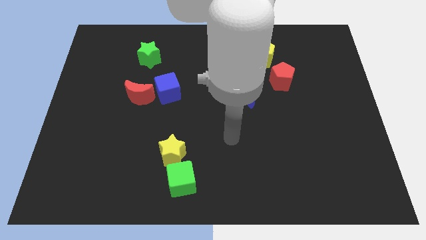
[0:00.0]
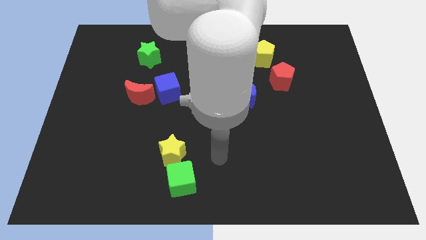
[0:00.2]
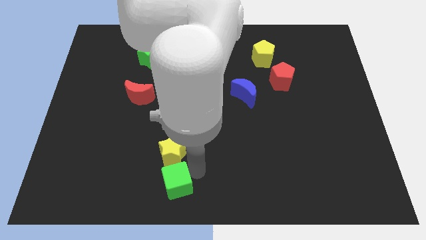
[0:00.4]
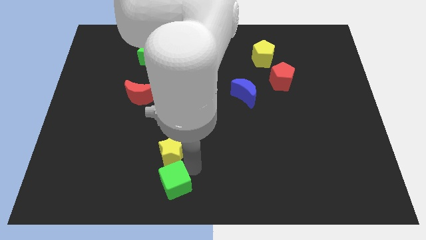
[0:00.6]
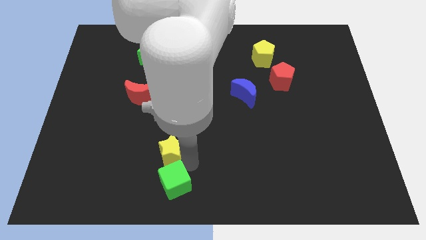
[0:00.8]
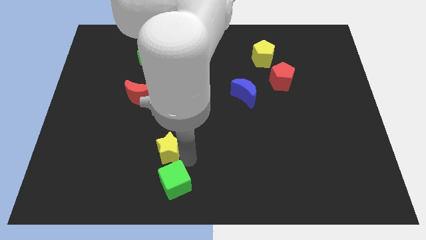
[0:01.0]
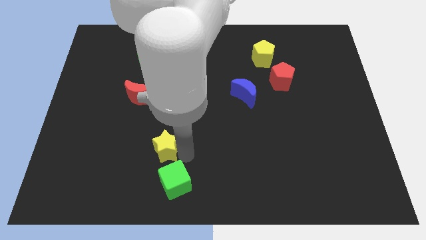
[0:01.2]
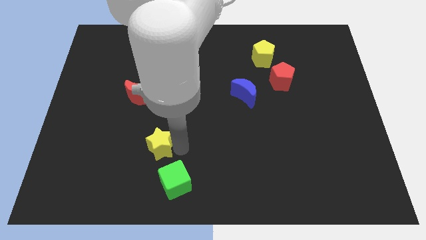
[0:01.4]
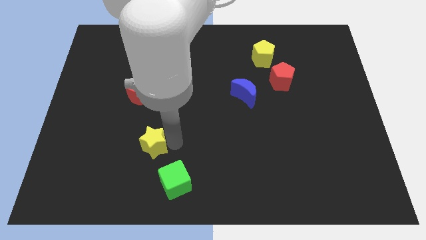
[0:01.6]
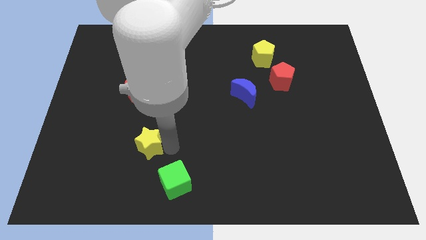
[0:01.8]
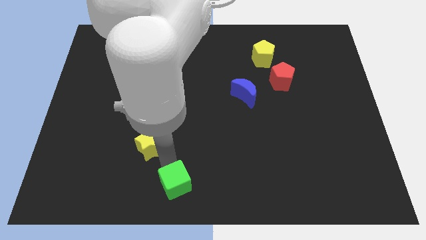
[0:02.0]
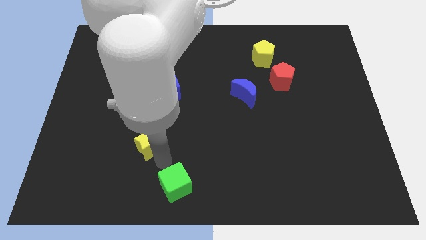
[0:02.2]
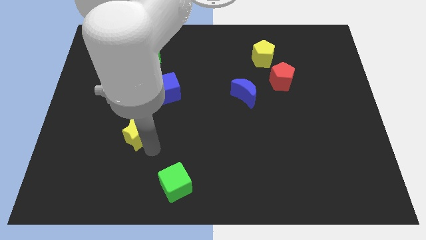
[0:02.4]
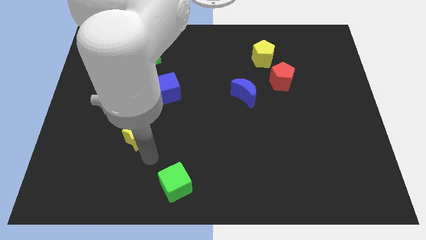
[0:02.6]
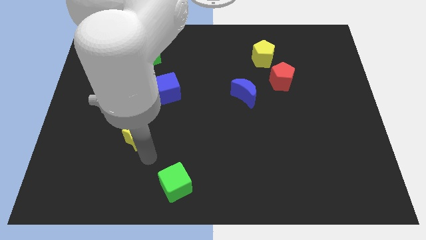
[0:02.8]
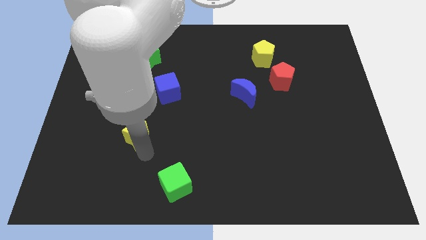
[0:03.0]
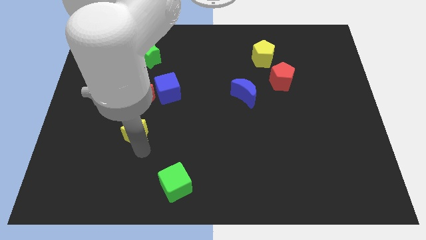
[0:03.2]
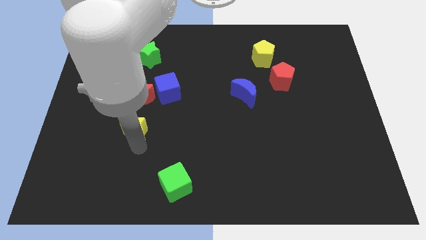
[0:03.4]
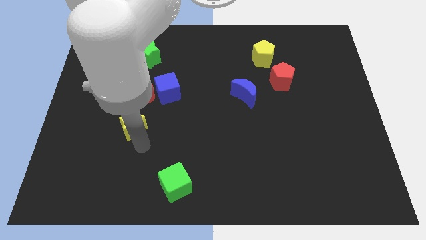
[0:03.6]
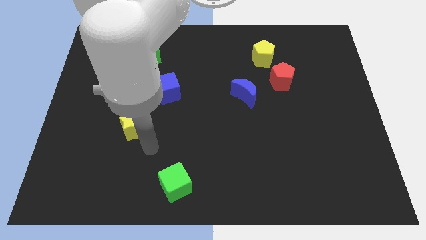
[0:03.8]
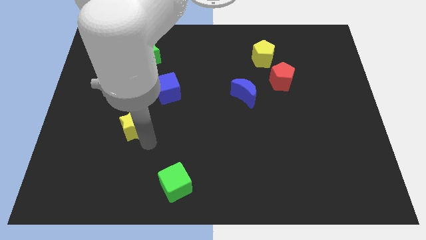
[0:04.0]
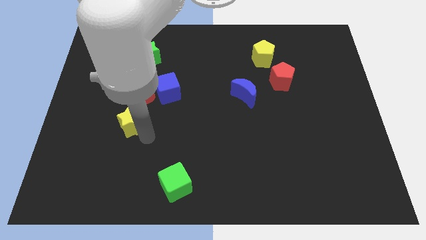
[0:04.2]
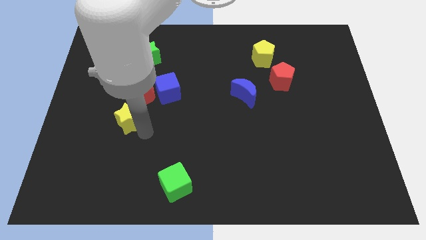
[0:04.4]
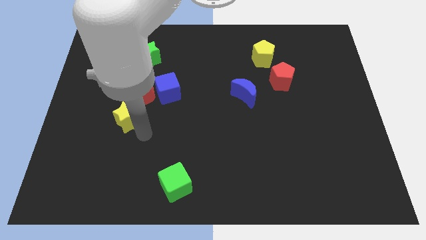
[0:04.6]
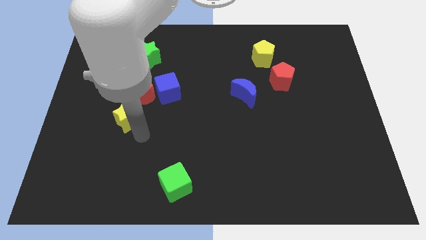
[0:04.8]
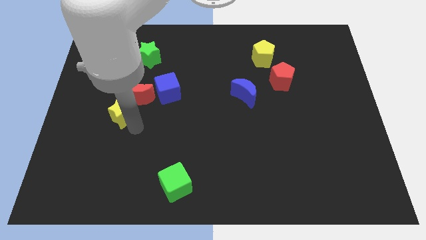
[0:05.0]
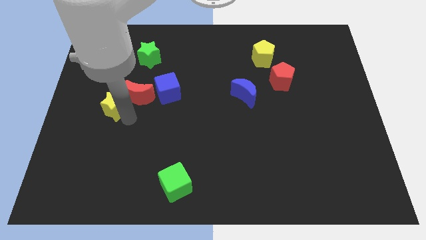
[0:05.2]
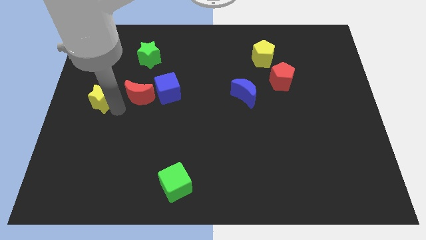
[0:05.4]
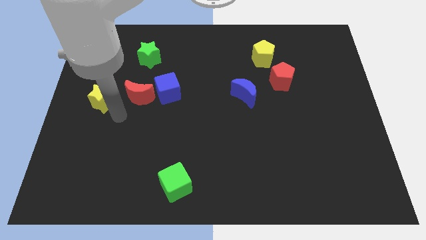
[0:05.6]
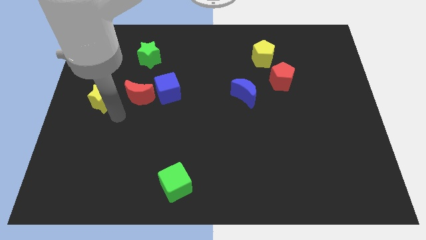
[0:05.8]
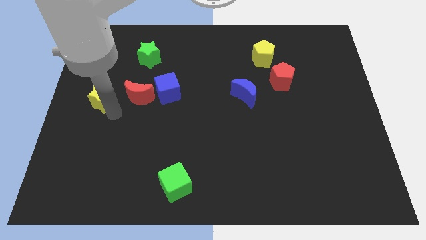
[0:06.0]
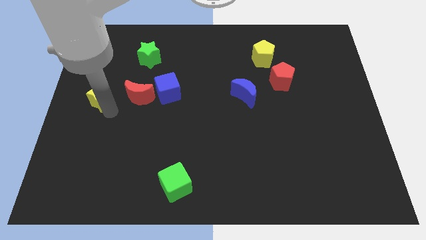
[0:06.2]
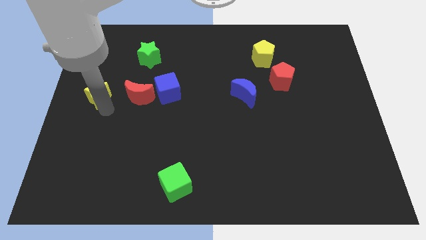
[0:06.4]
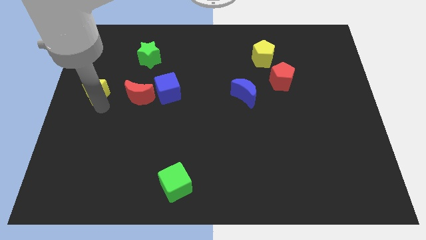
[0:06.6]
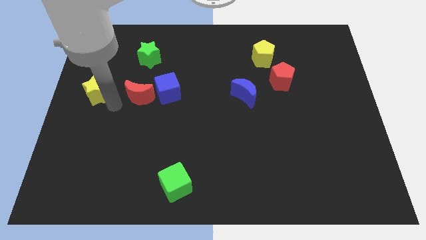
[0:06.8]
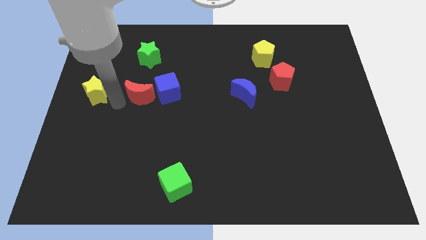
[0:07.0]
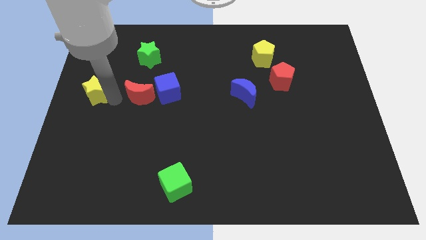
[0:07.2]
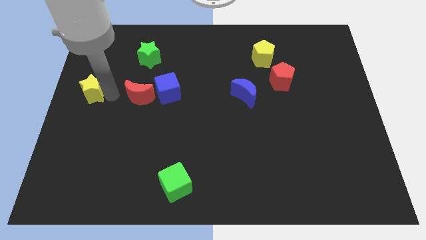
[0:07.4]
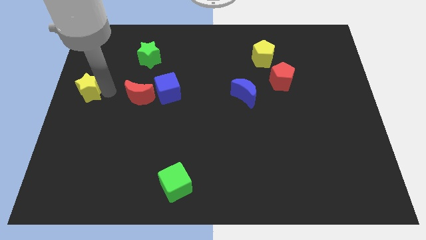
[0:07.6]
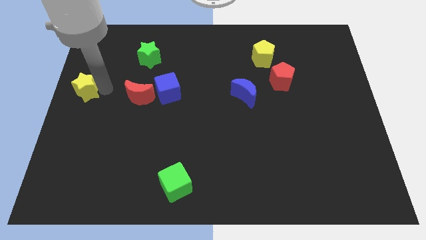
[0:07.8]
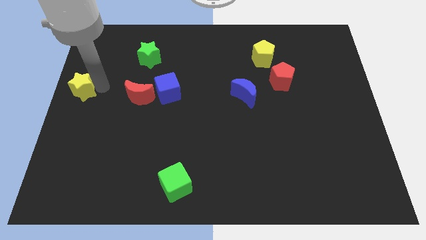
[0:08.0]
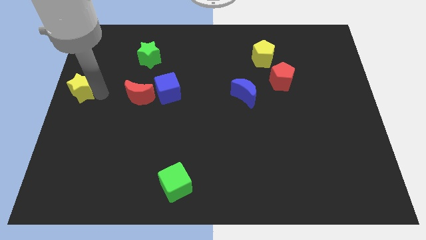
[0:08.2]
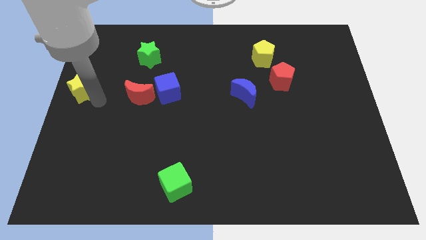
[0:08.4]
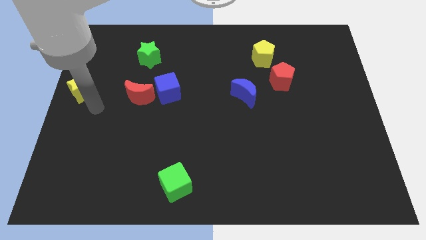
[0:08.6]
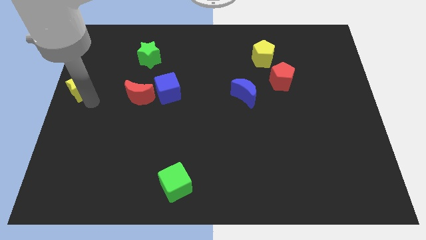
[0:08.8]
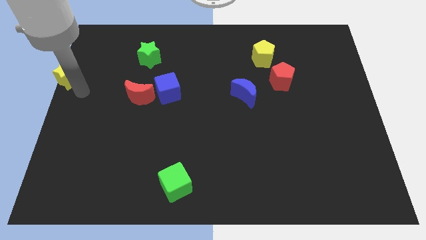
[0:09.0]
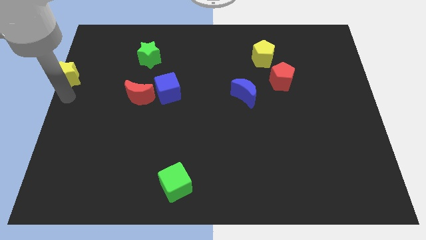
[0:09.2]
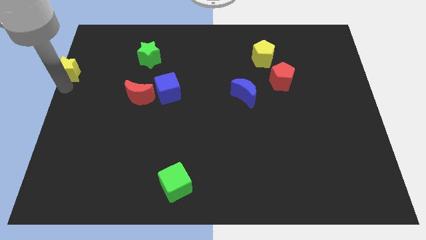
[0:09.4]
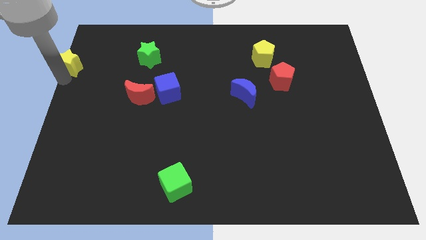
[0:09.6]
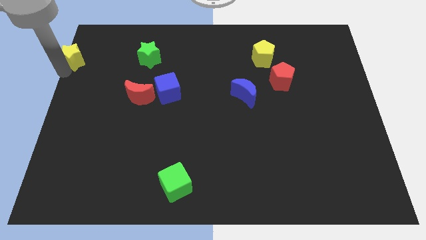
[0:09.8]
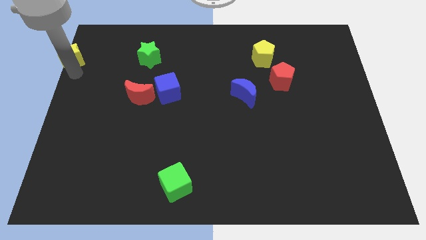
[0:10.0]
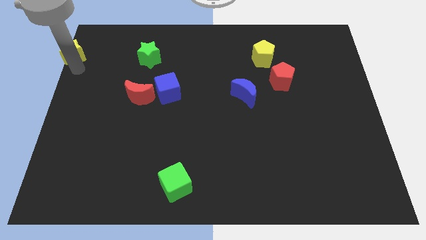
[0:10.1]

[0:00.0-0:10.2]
move the yellow star to the top left

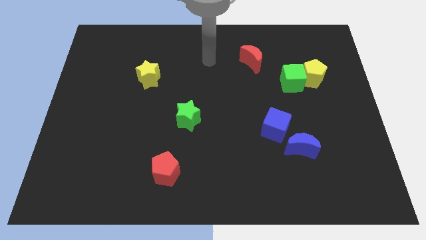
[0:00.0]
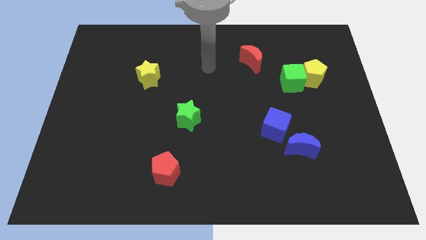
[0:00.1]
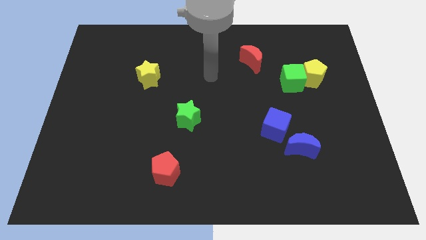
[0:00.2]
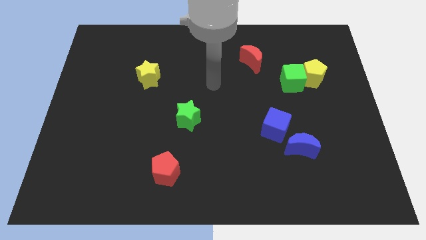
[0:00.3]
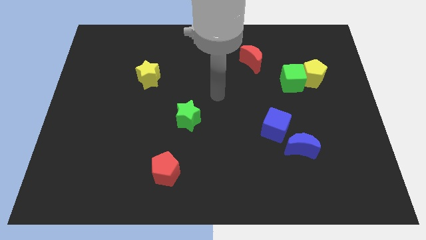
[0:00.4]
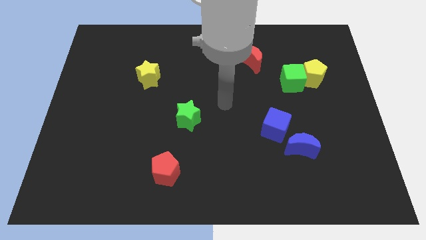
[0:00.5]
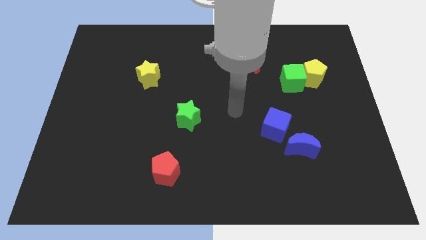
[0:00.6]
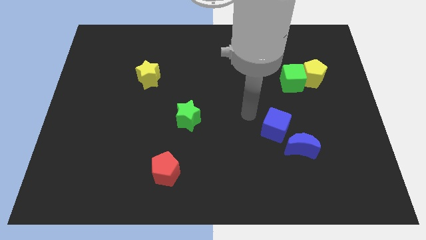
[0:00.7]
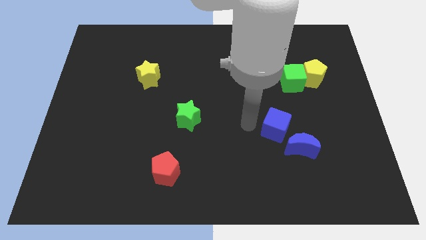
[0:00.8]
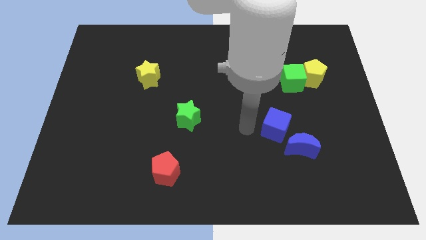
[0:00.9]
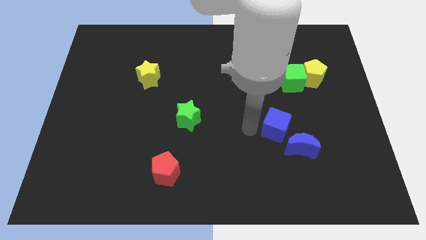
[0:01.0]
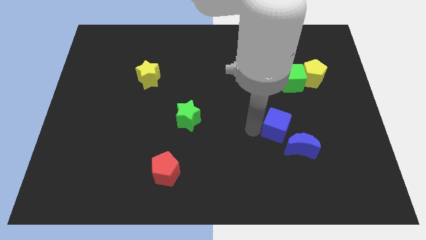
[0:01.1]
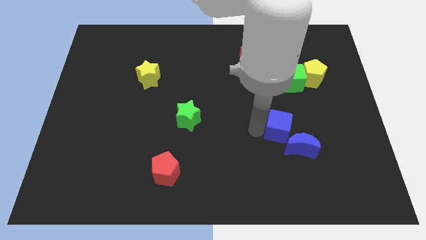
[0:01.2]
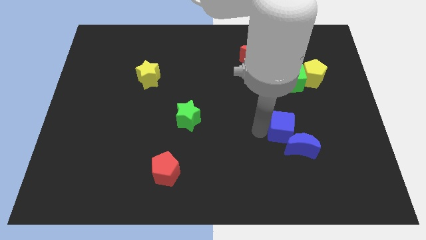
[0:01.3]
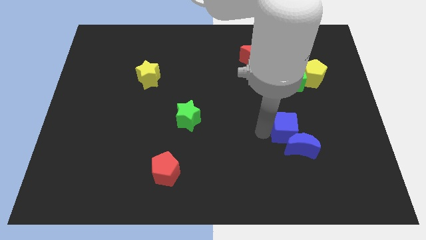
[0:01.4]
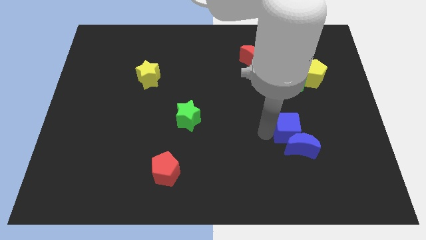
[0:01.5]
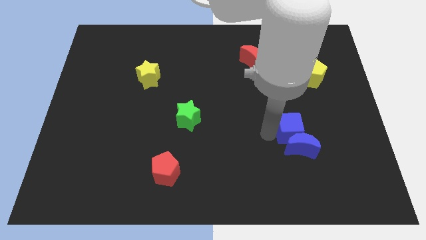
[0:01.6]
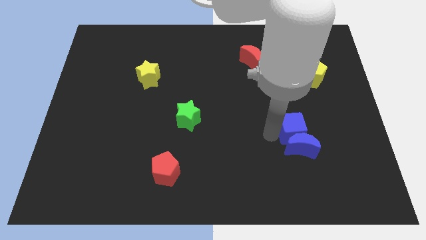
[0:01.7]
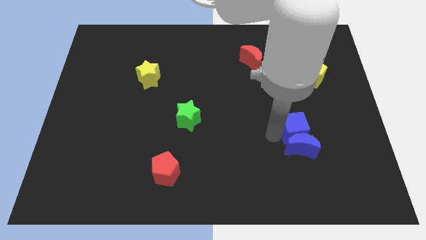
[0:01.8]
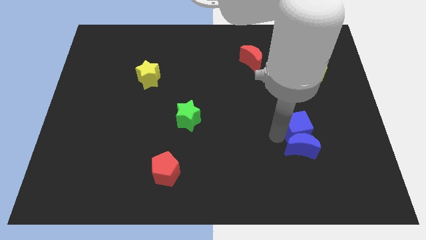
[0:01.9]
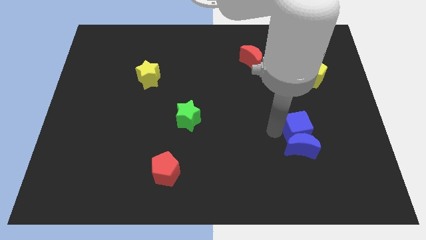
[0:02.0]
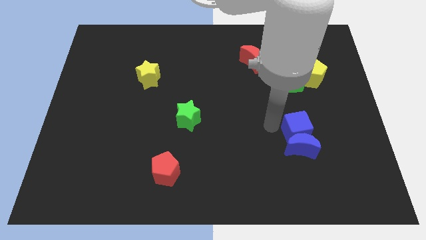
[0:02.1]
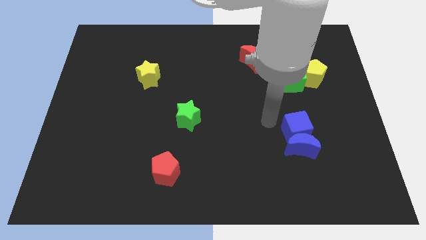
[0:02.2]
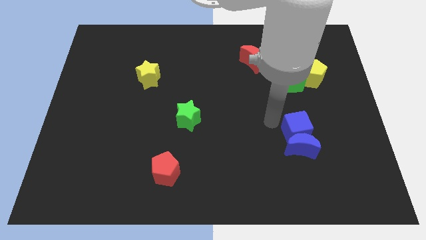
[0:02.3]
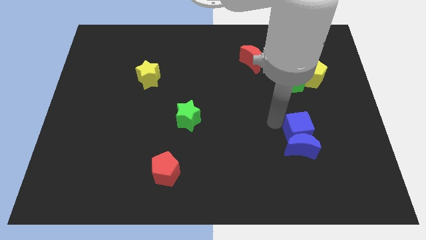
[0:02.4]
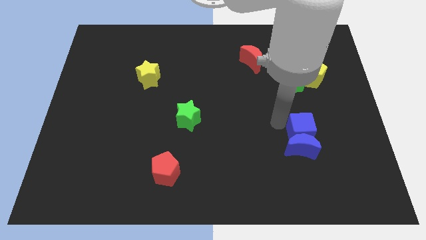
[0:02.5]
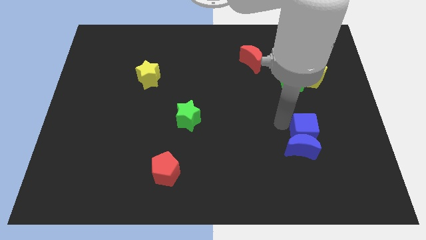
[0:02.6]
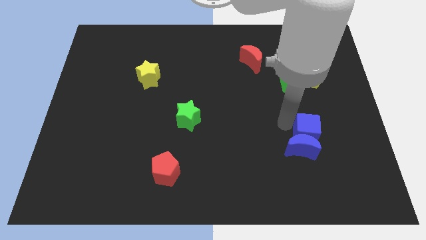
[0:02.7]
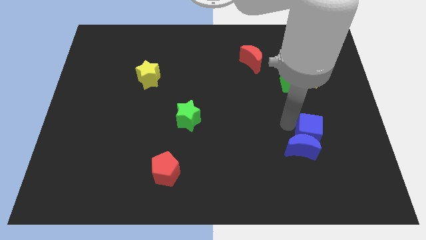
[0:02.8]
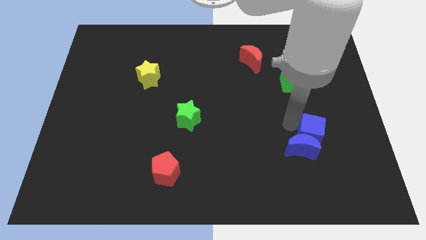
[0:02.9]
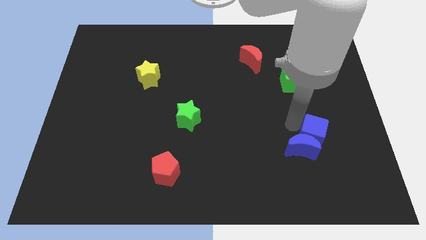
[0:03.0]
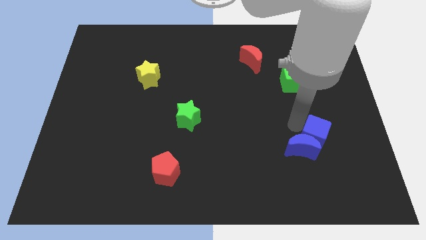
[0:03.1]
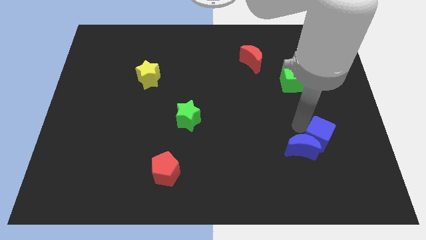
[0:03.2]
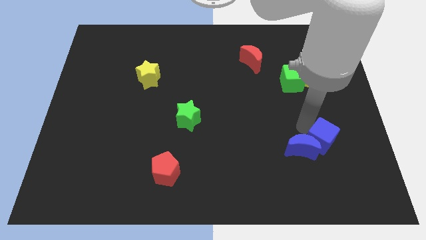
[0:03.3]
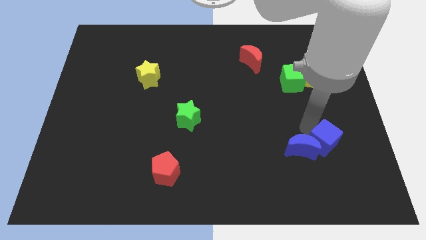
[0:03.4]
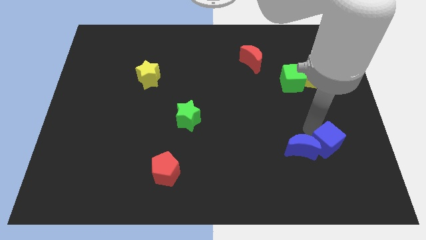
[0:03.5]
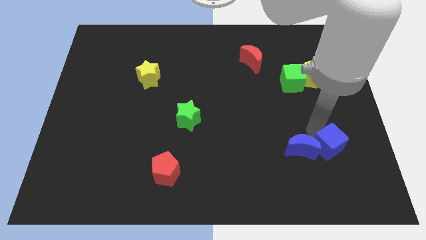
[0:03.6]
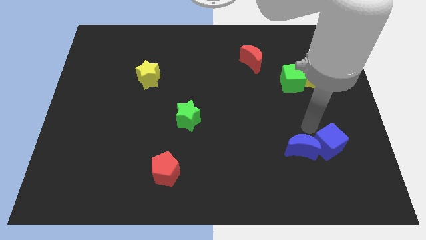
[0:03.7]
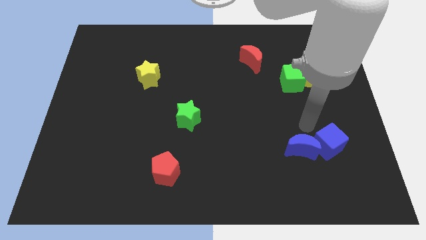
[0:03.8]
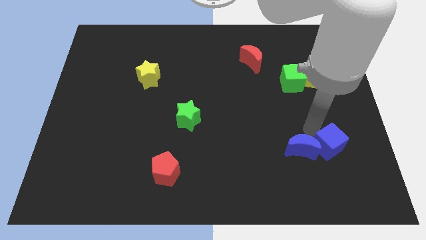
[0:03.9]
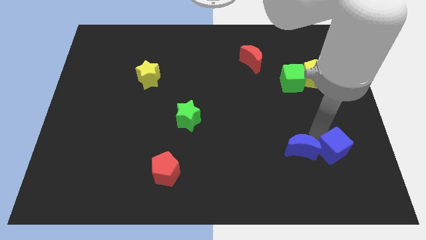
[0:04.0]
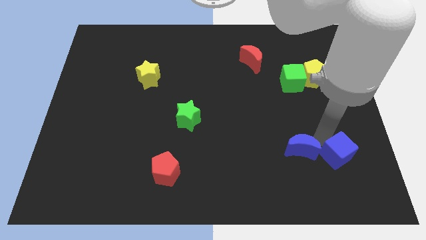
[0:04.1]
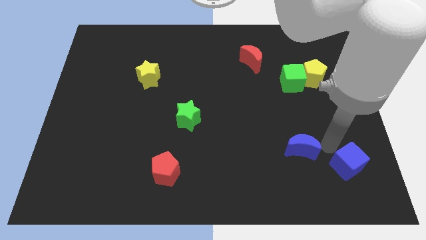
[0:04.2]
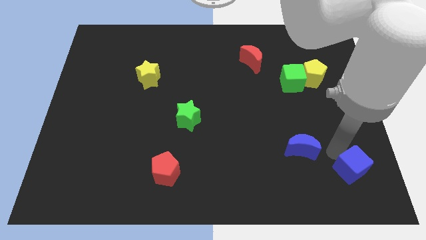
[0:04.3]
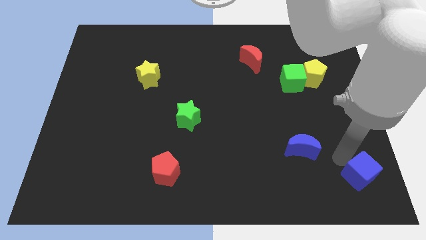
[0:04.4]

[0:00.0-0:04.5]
slide the blue cube to the bottom right corner
